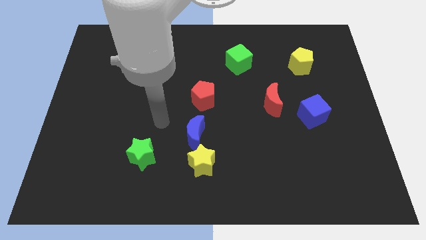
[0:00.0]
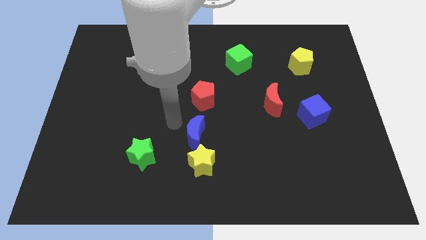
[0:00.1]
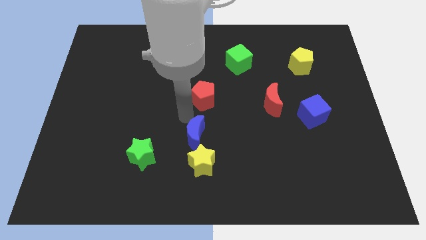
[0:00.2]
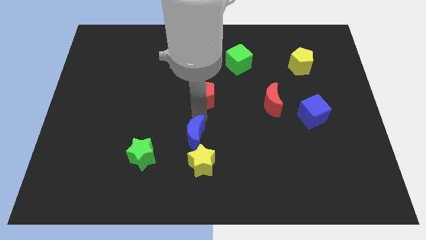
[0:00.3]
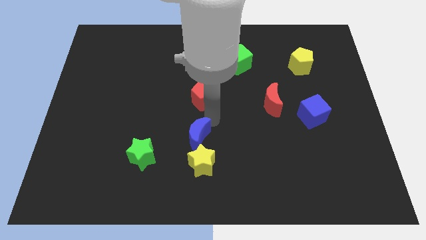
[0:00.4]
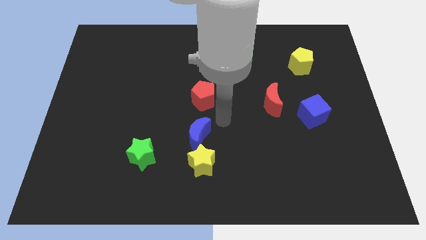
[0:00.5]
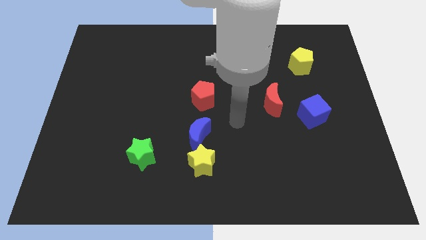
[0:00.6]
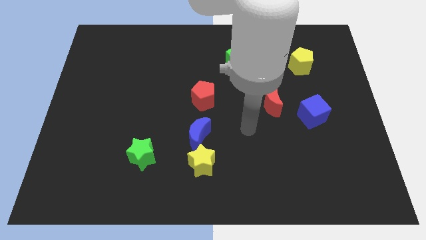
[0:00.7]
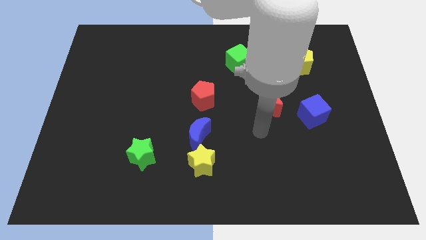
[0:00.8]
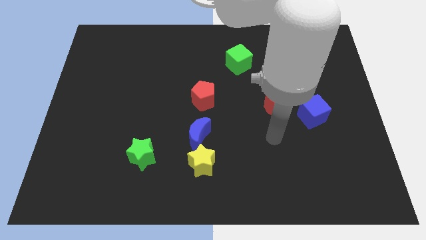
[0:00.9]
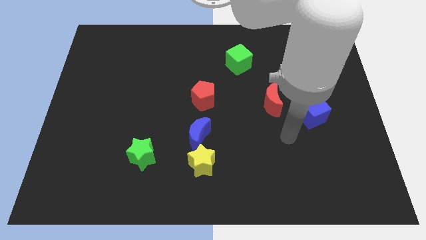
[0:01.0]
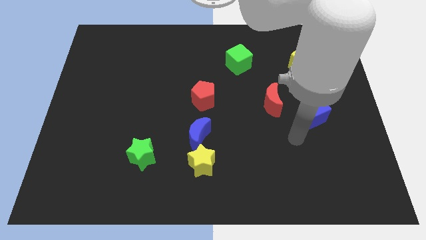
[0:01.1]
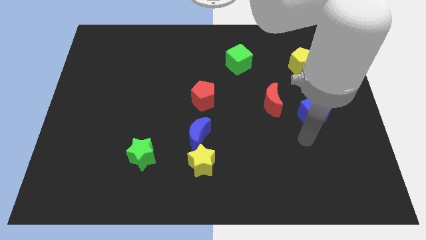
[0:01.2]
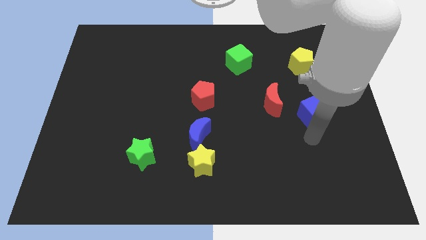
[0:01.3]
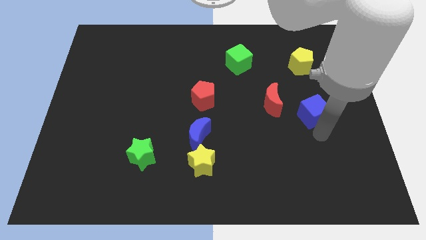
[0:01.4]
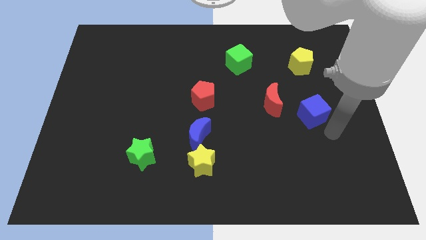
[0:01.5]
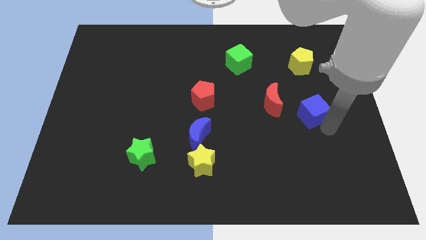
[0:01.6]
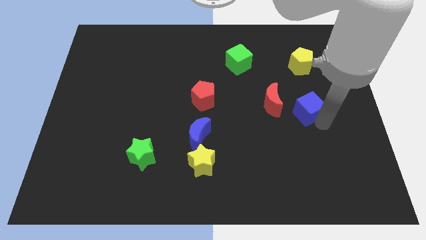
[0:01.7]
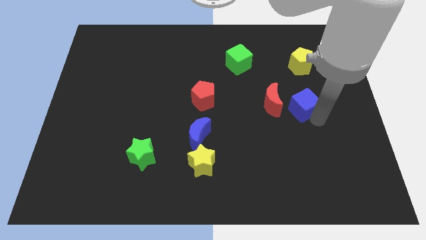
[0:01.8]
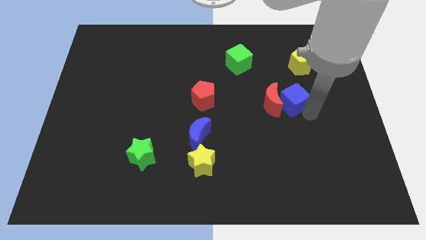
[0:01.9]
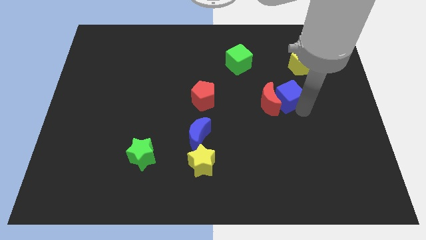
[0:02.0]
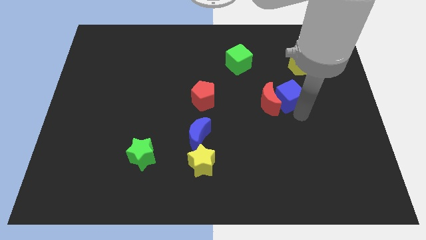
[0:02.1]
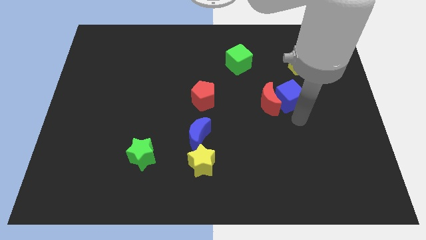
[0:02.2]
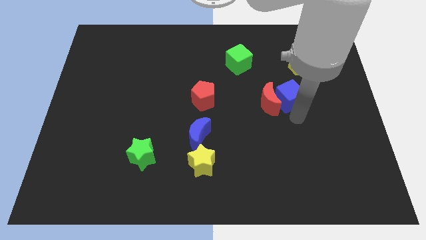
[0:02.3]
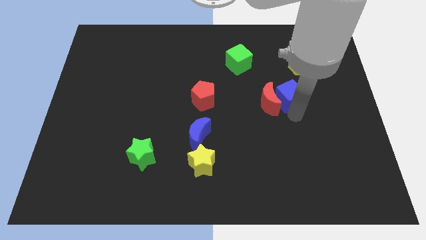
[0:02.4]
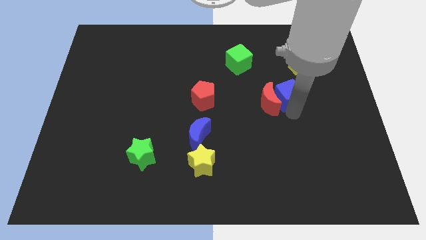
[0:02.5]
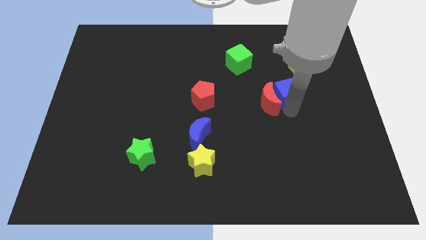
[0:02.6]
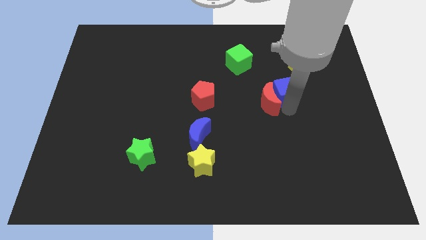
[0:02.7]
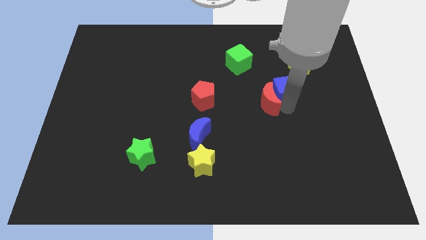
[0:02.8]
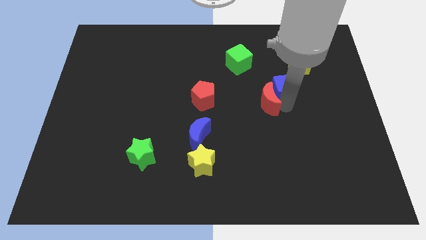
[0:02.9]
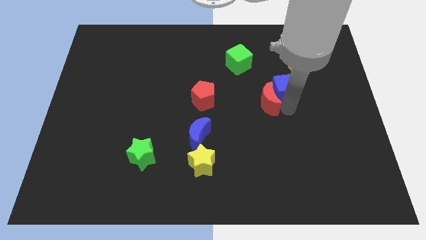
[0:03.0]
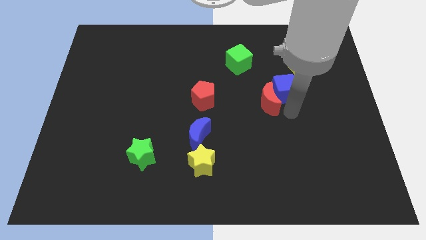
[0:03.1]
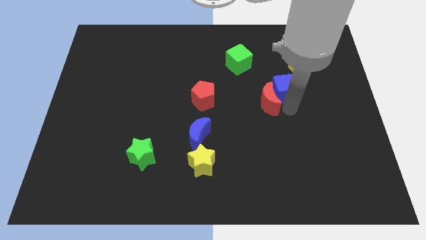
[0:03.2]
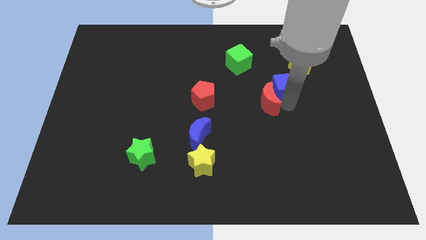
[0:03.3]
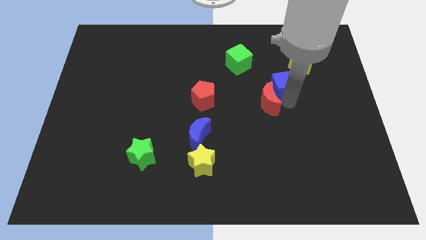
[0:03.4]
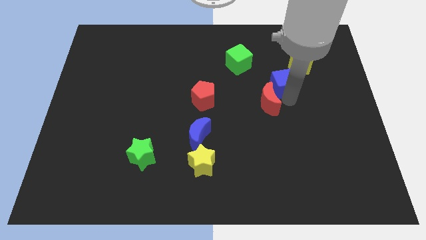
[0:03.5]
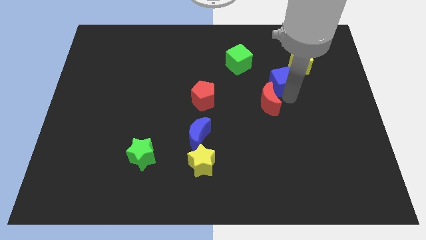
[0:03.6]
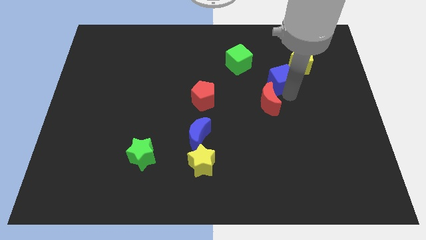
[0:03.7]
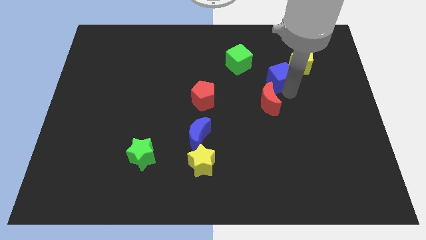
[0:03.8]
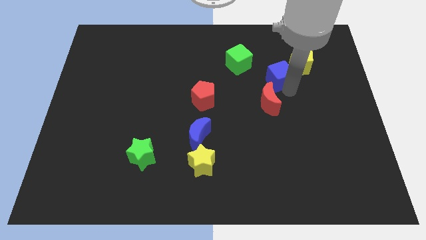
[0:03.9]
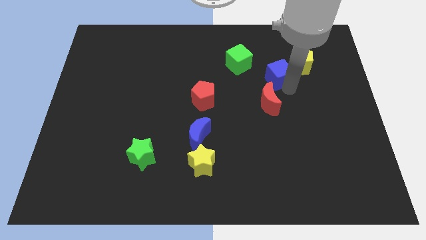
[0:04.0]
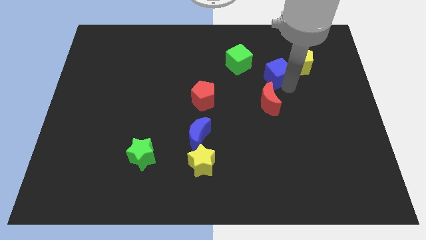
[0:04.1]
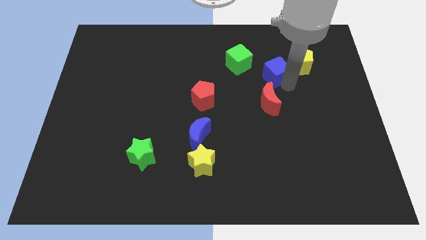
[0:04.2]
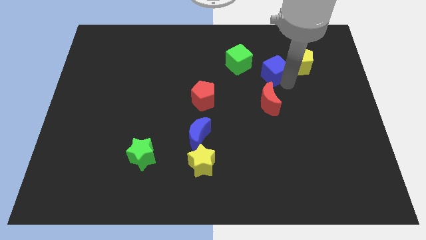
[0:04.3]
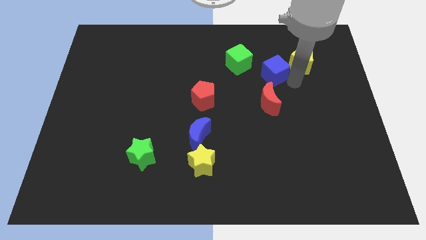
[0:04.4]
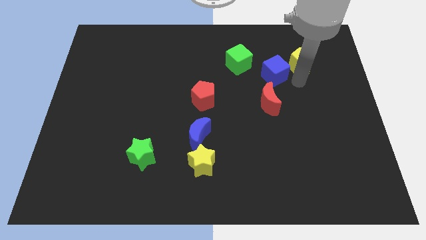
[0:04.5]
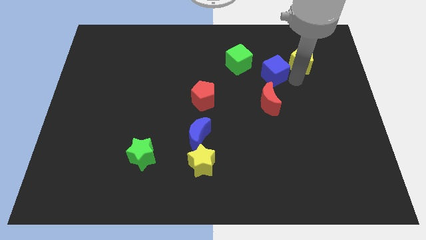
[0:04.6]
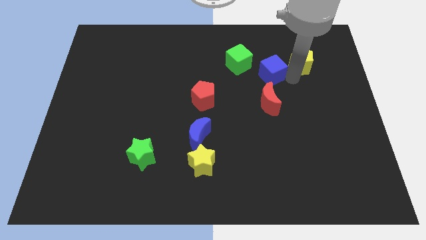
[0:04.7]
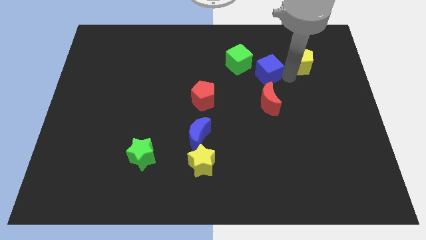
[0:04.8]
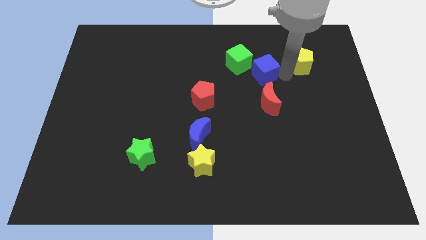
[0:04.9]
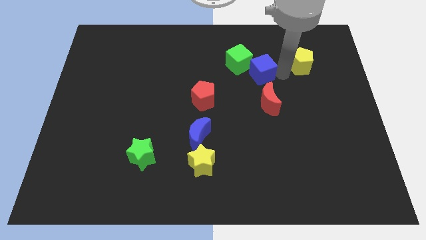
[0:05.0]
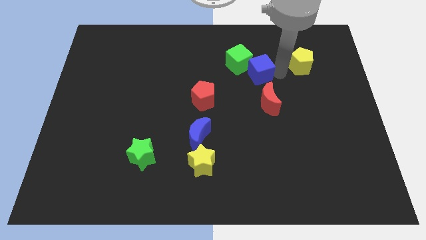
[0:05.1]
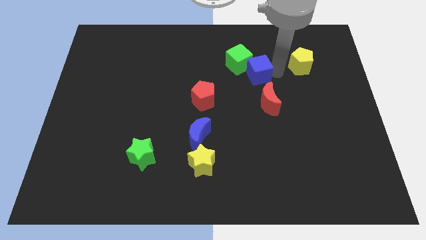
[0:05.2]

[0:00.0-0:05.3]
slide the blue cube towards the green cube

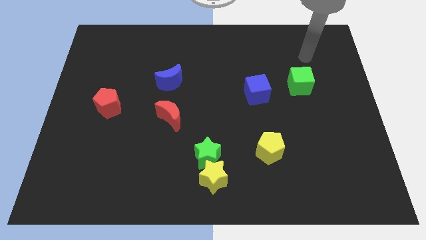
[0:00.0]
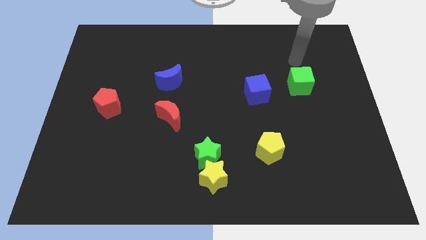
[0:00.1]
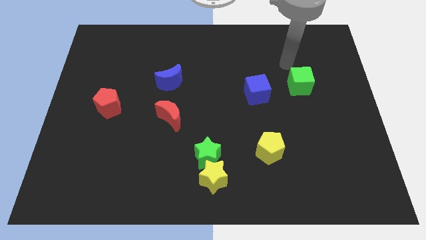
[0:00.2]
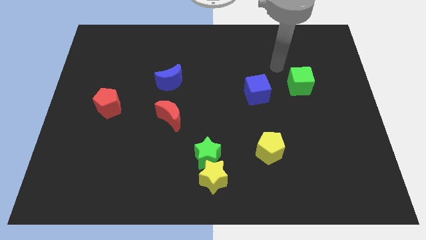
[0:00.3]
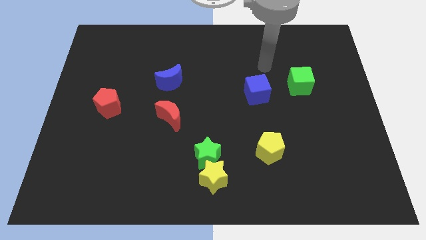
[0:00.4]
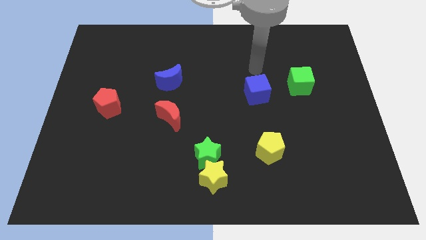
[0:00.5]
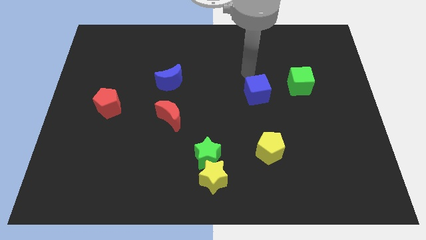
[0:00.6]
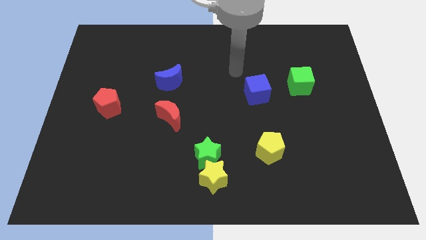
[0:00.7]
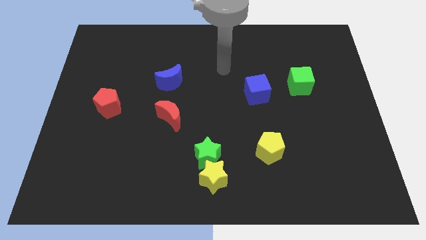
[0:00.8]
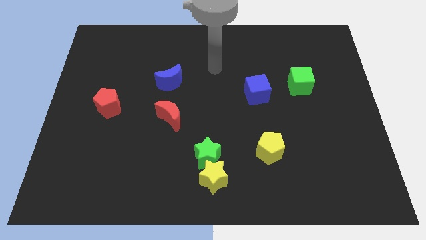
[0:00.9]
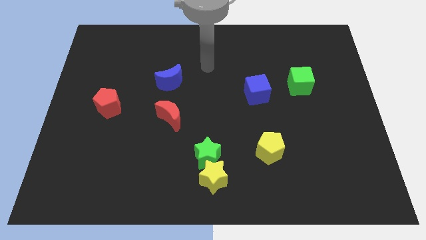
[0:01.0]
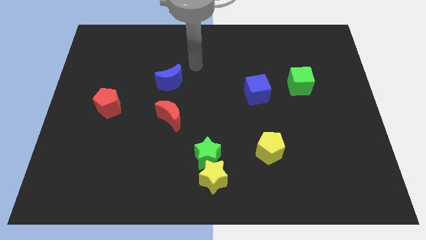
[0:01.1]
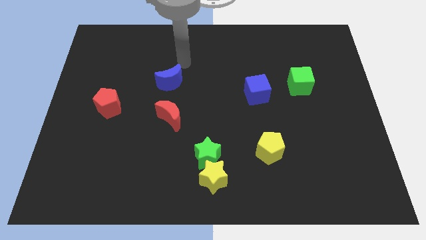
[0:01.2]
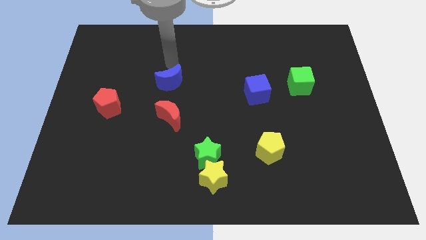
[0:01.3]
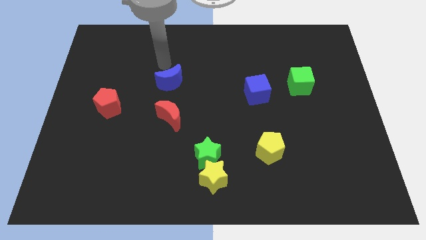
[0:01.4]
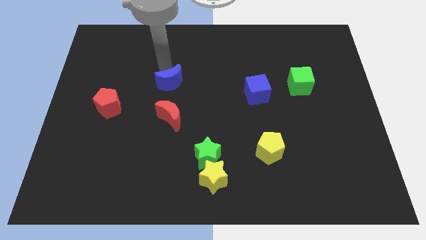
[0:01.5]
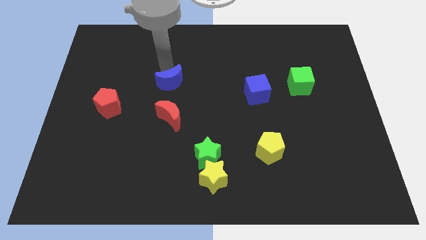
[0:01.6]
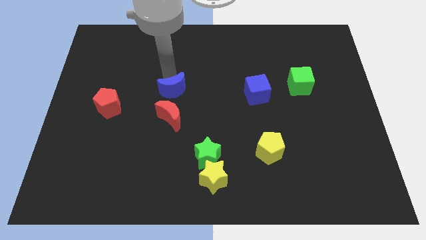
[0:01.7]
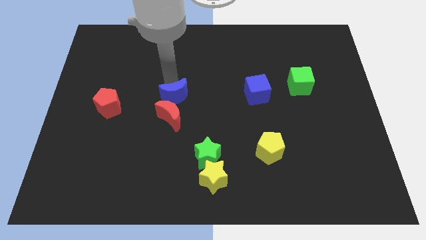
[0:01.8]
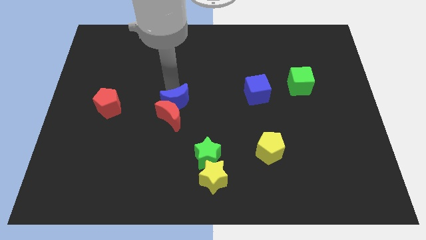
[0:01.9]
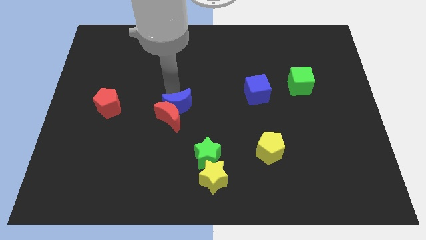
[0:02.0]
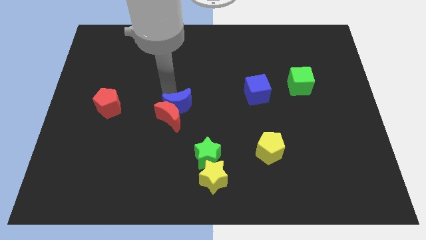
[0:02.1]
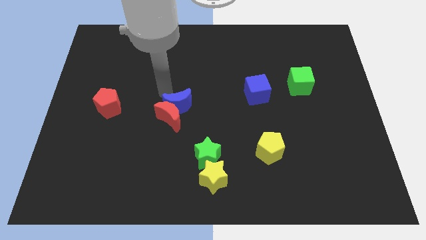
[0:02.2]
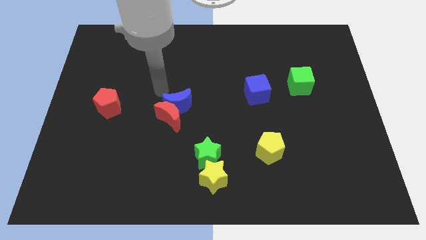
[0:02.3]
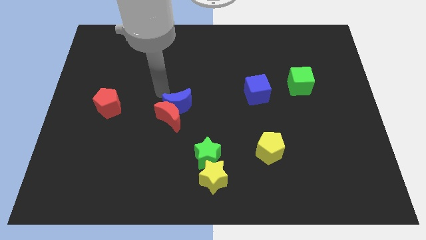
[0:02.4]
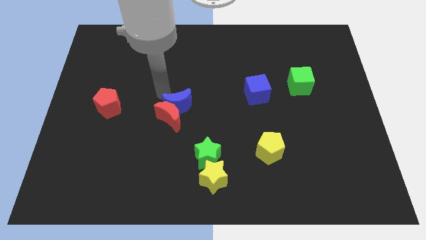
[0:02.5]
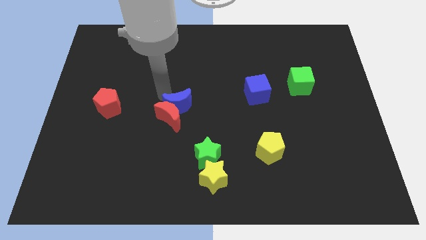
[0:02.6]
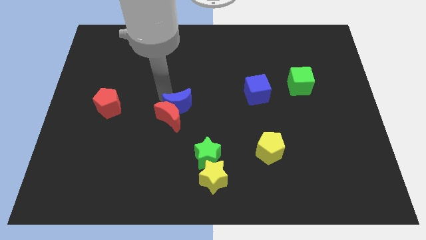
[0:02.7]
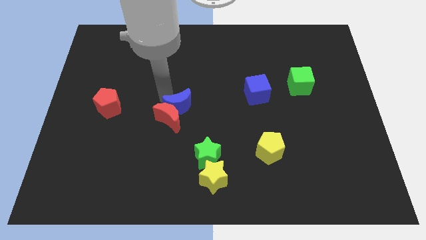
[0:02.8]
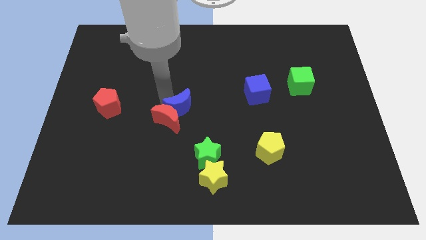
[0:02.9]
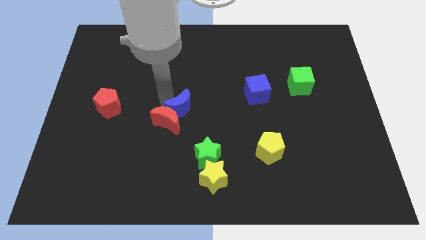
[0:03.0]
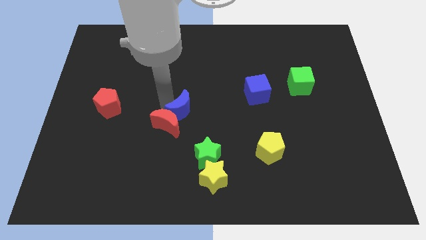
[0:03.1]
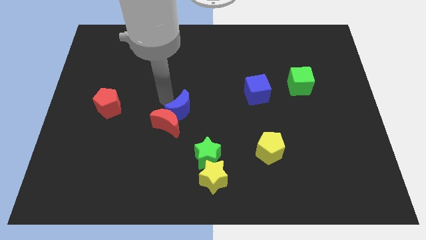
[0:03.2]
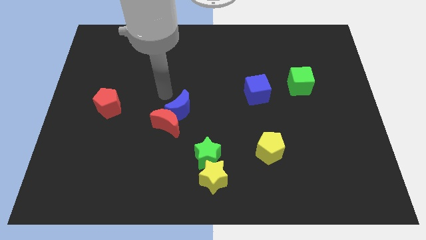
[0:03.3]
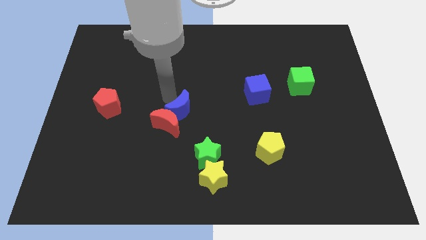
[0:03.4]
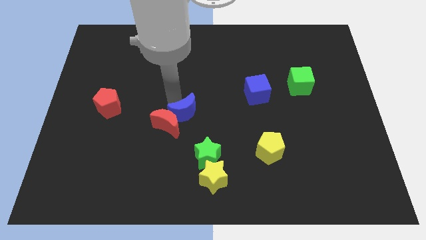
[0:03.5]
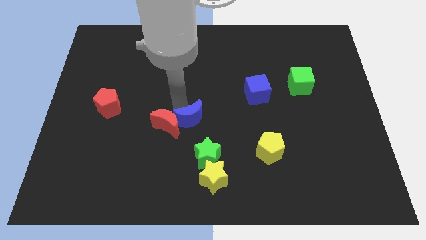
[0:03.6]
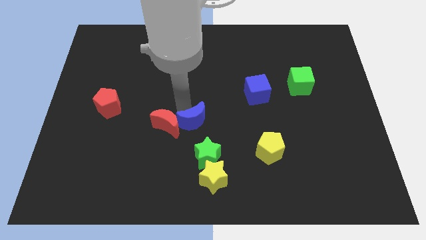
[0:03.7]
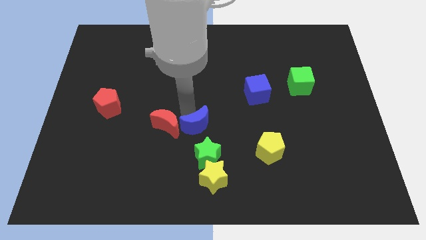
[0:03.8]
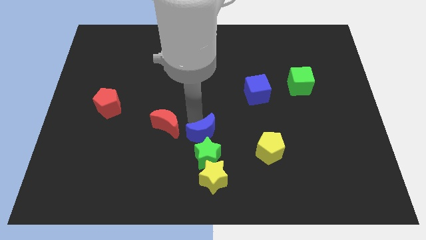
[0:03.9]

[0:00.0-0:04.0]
slide the blue moon to the green star
